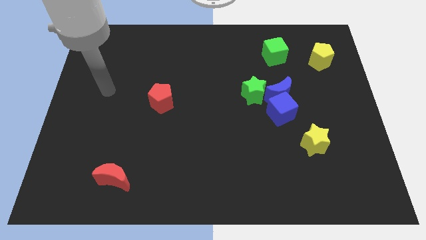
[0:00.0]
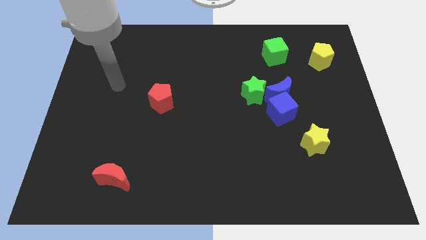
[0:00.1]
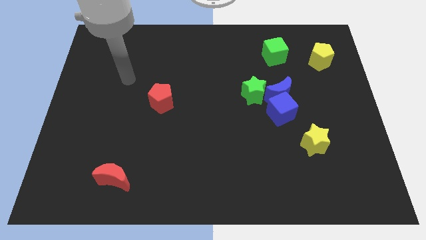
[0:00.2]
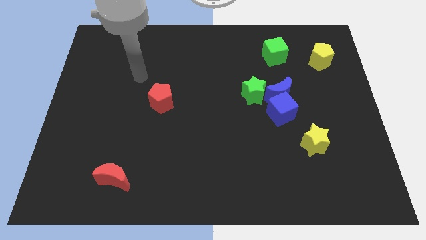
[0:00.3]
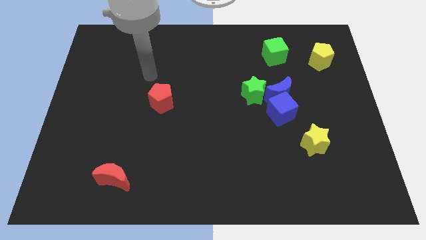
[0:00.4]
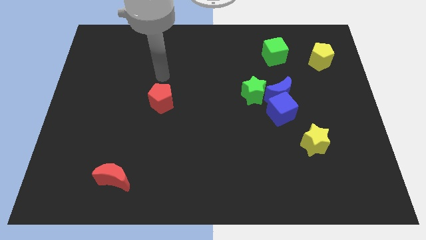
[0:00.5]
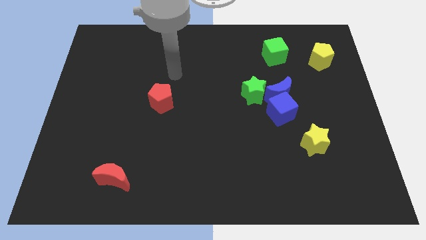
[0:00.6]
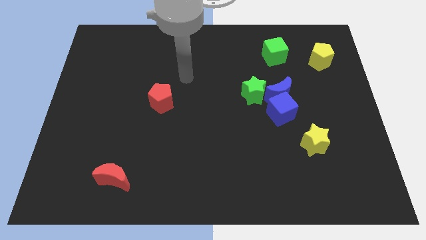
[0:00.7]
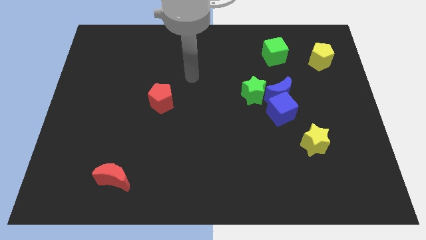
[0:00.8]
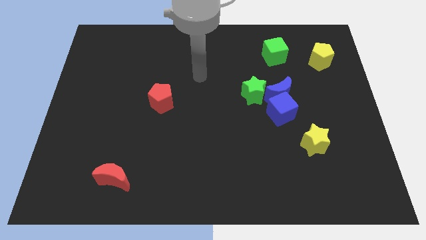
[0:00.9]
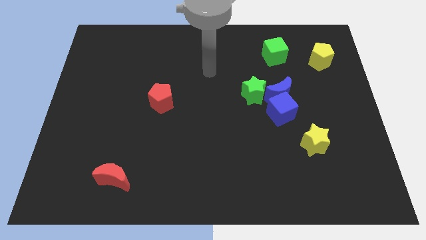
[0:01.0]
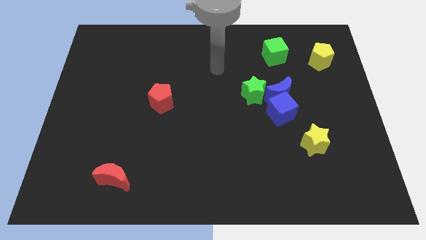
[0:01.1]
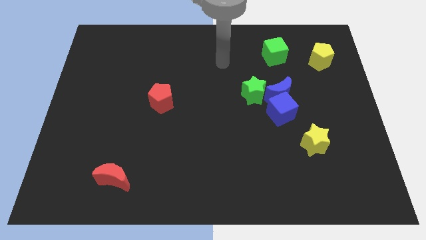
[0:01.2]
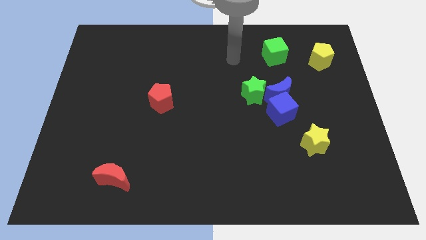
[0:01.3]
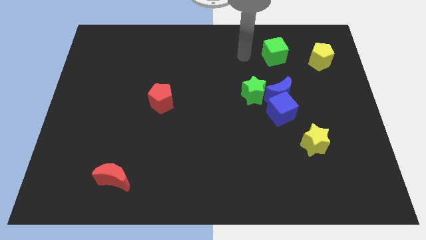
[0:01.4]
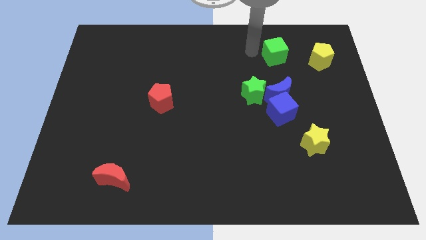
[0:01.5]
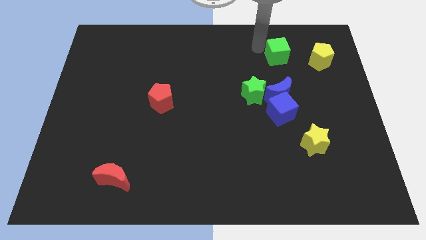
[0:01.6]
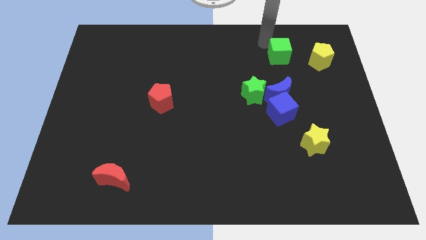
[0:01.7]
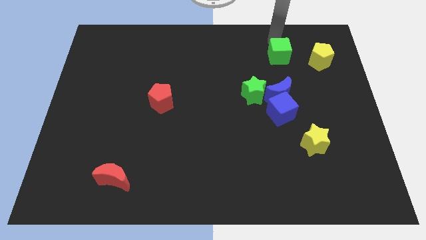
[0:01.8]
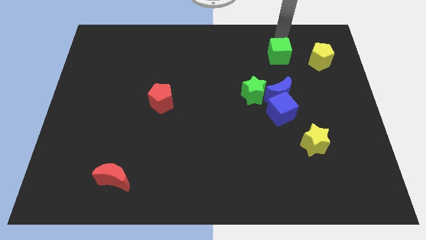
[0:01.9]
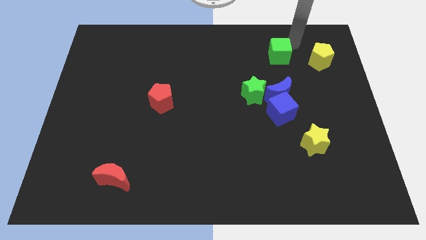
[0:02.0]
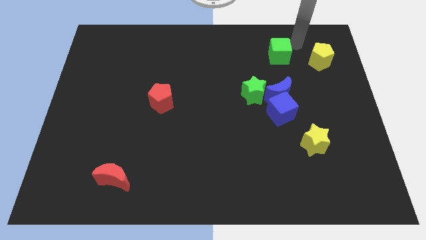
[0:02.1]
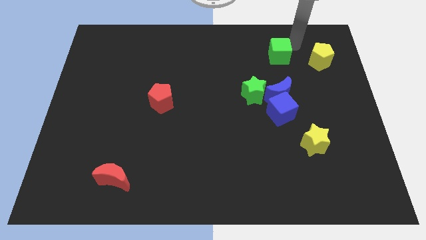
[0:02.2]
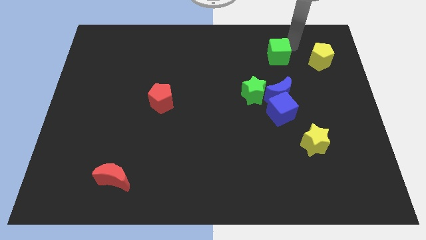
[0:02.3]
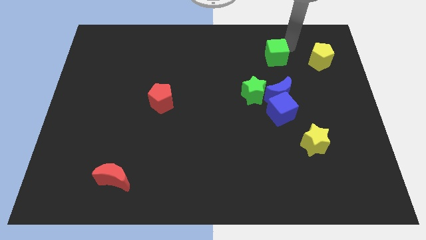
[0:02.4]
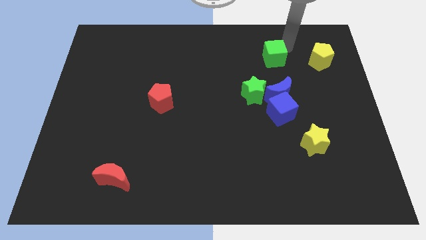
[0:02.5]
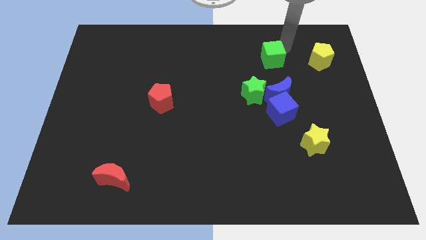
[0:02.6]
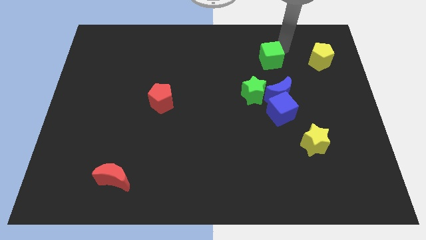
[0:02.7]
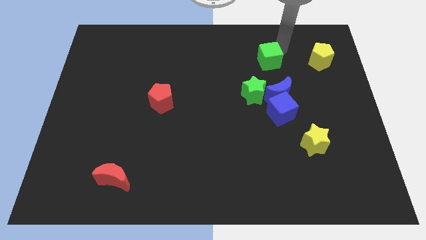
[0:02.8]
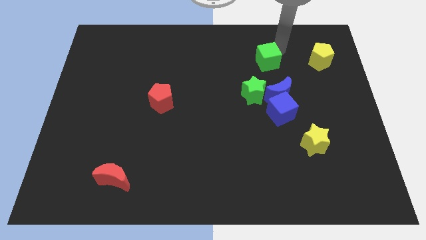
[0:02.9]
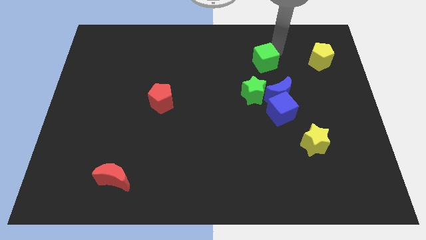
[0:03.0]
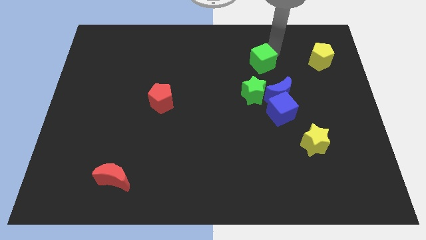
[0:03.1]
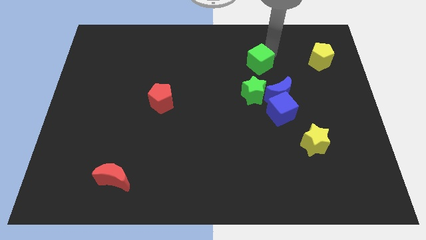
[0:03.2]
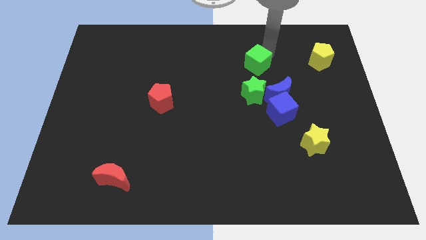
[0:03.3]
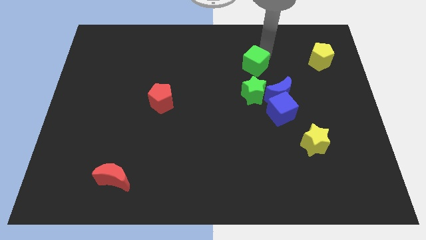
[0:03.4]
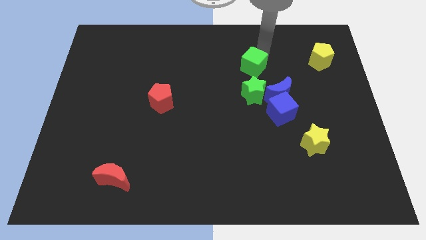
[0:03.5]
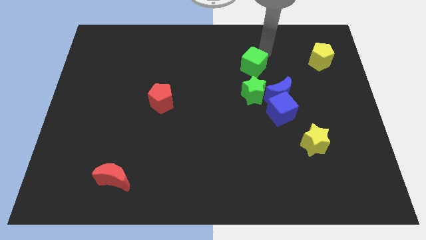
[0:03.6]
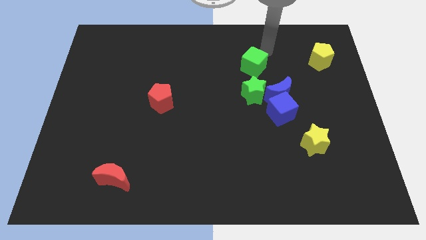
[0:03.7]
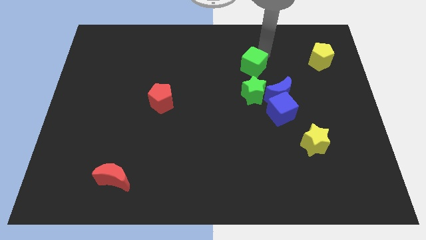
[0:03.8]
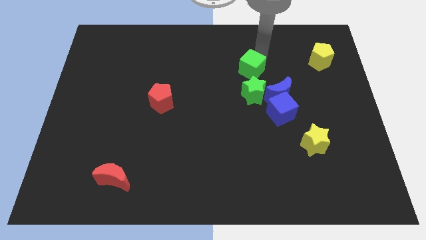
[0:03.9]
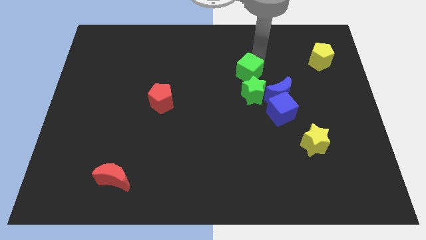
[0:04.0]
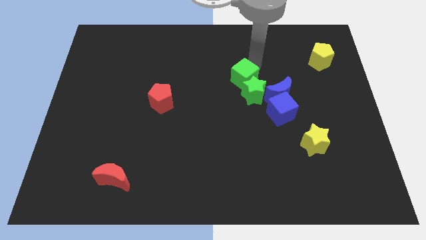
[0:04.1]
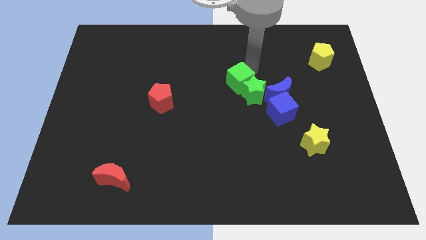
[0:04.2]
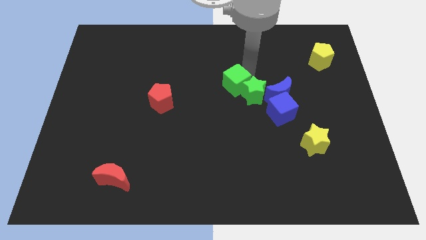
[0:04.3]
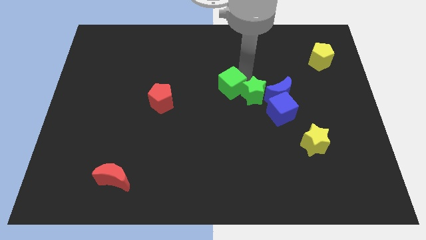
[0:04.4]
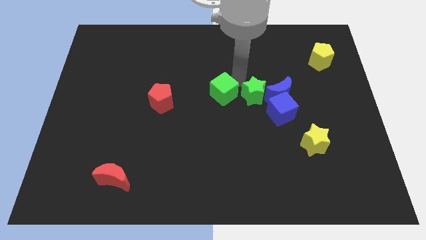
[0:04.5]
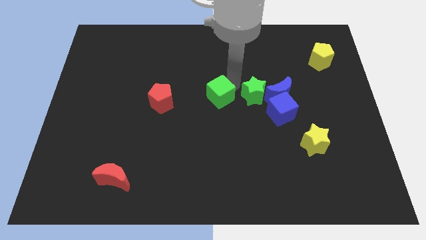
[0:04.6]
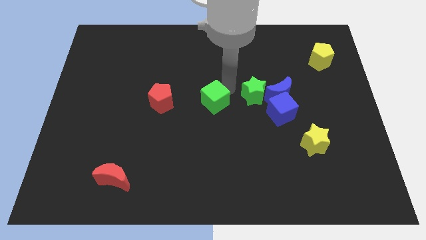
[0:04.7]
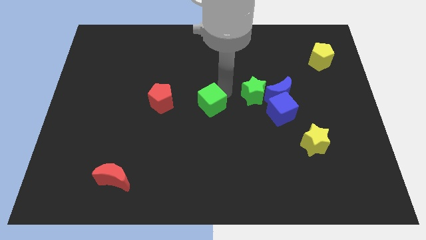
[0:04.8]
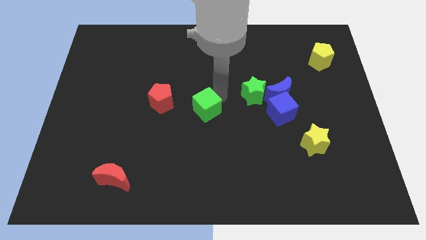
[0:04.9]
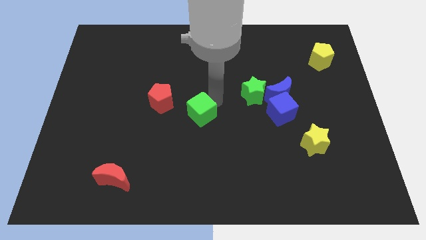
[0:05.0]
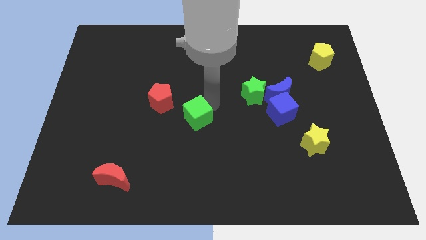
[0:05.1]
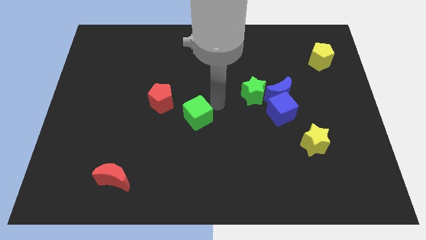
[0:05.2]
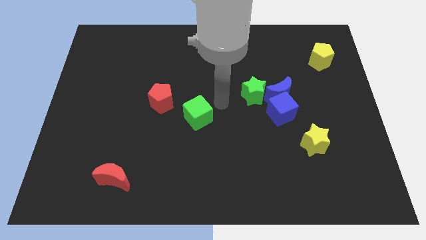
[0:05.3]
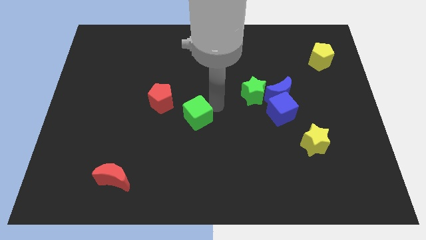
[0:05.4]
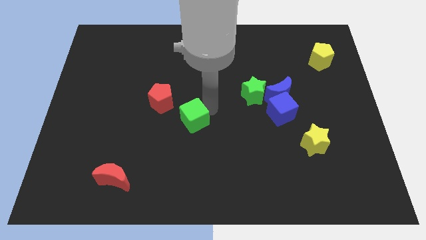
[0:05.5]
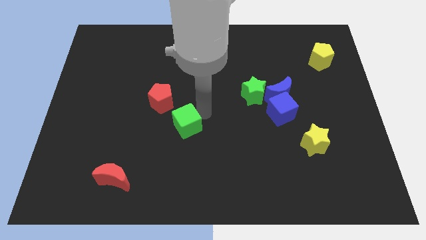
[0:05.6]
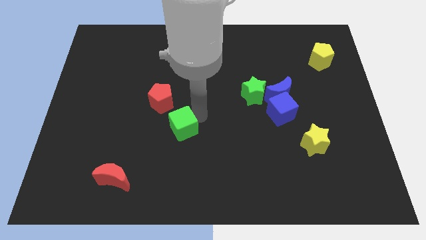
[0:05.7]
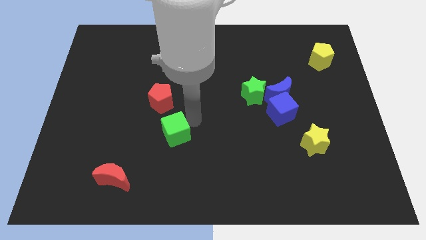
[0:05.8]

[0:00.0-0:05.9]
push the green cube to the bottom of the red pentagon

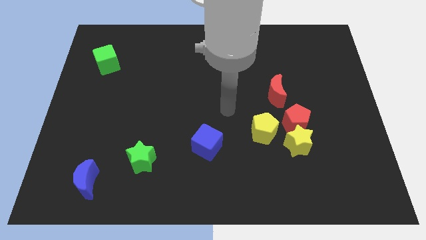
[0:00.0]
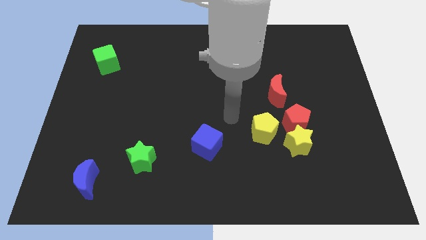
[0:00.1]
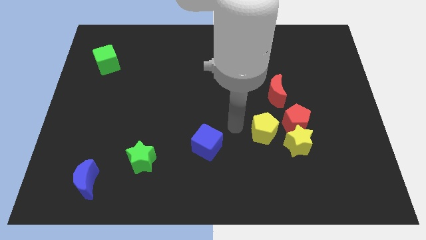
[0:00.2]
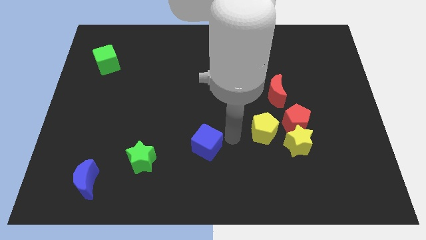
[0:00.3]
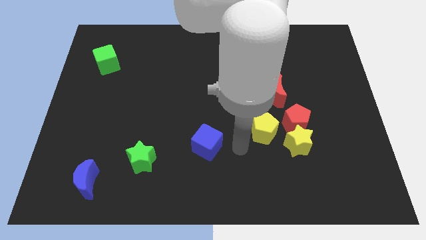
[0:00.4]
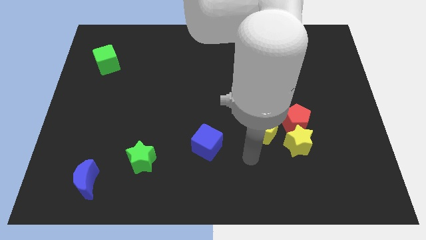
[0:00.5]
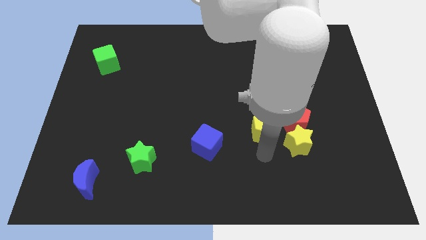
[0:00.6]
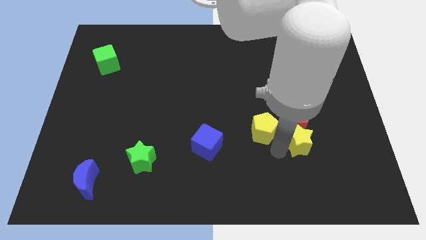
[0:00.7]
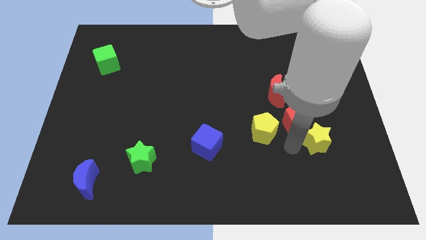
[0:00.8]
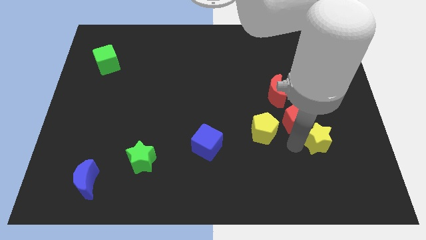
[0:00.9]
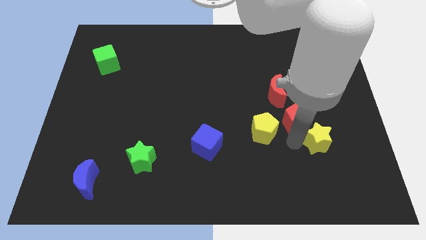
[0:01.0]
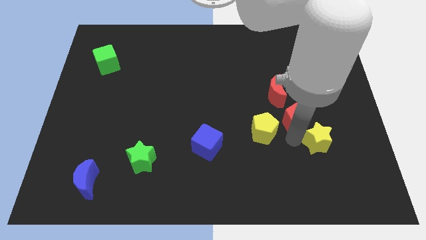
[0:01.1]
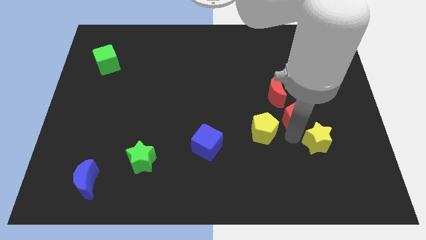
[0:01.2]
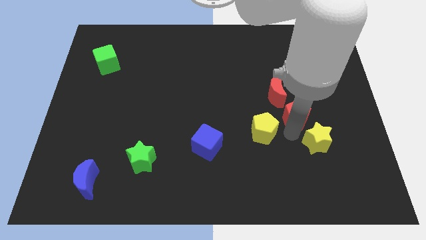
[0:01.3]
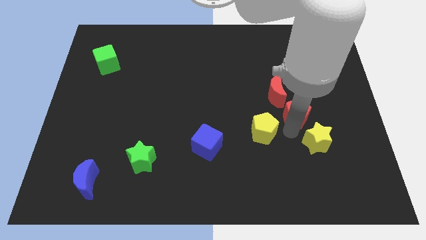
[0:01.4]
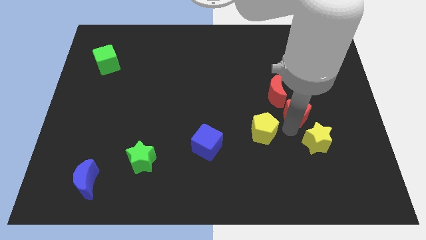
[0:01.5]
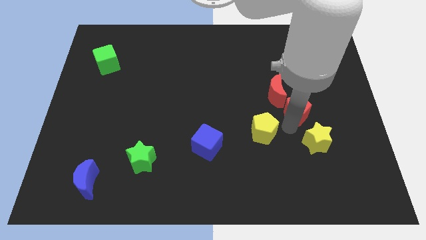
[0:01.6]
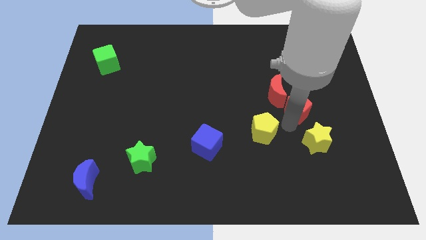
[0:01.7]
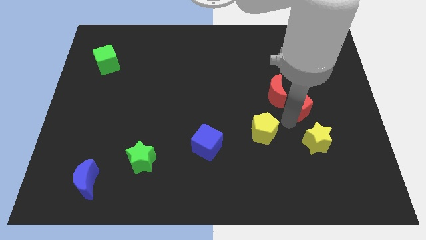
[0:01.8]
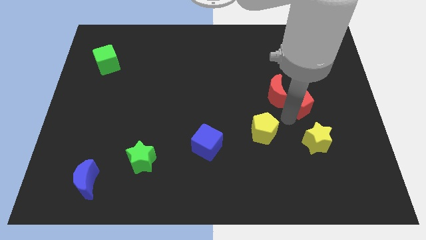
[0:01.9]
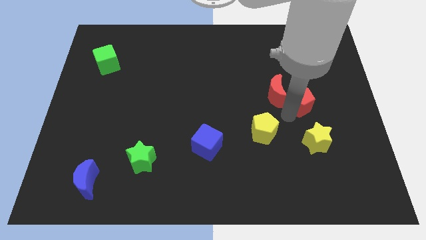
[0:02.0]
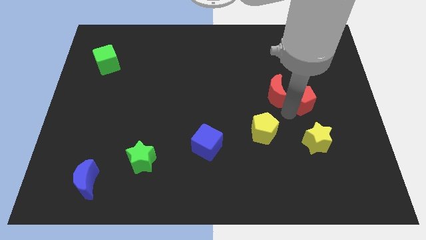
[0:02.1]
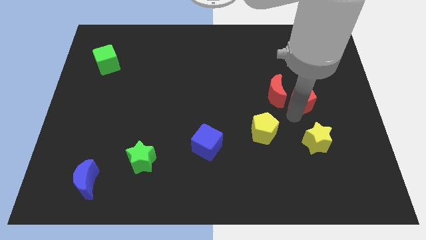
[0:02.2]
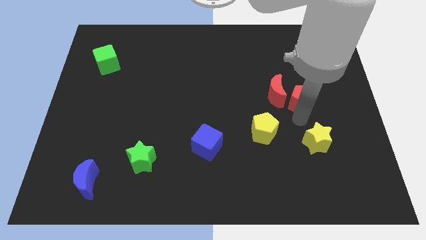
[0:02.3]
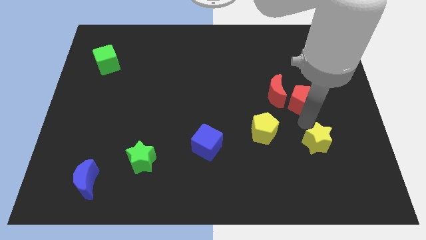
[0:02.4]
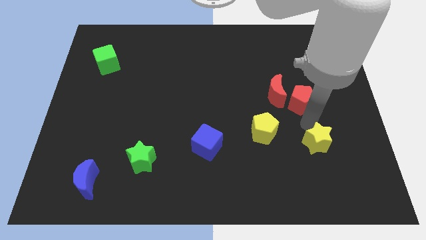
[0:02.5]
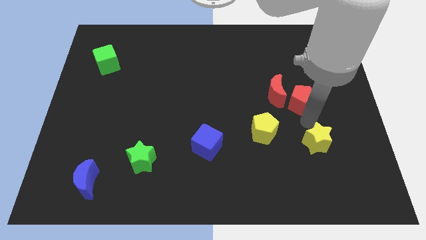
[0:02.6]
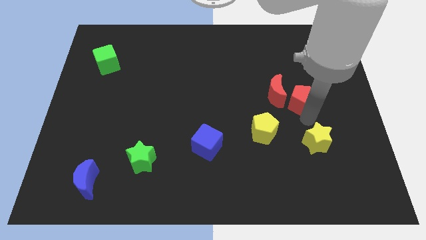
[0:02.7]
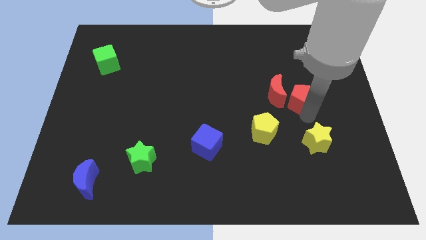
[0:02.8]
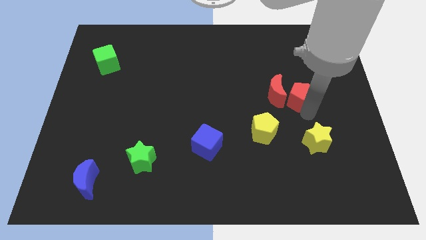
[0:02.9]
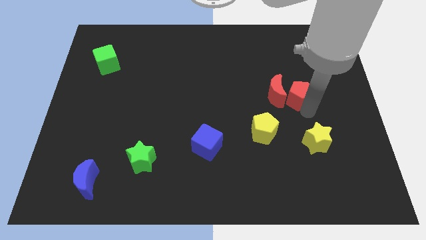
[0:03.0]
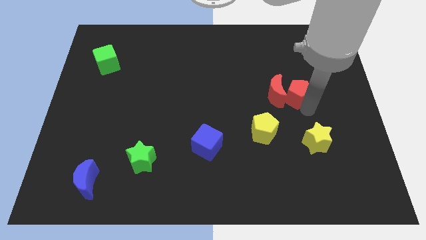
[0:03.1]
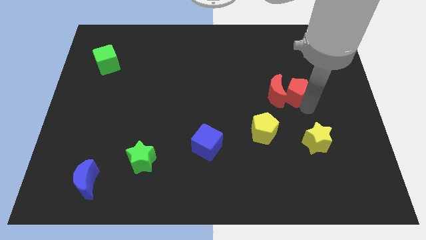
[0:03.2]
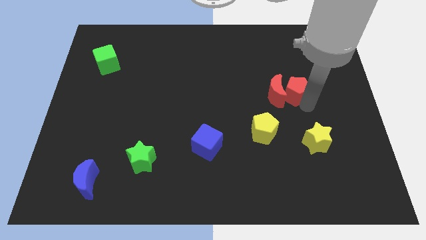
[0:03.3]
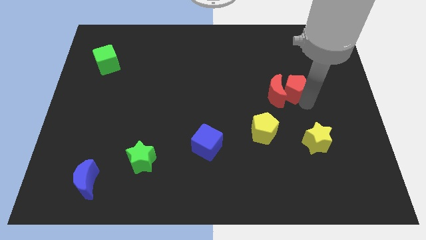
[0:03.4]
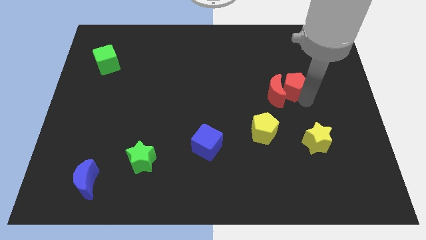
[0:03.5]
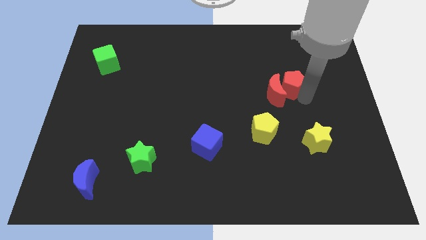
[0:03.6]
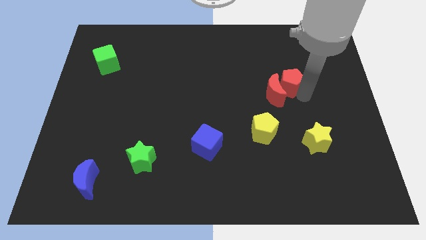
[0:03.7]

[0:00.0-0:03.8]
put the red pentagon to the top side of the red moon
